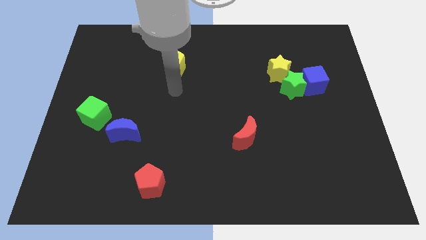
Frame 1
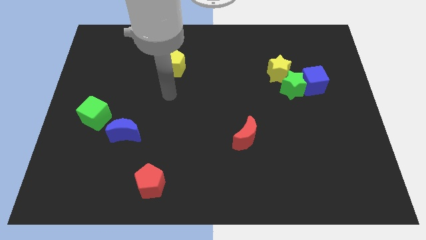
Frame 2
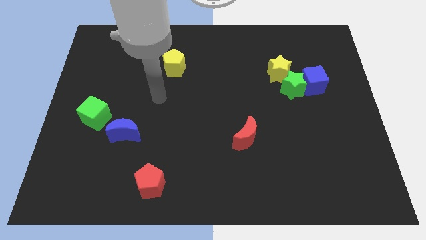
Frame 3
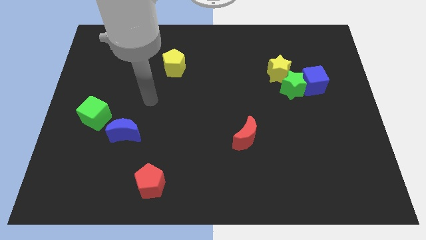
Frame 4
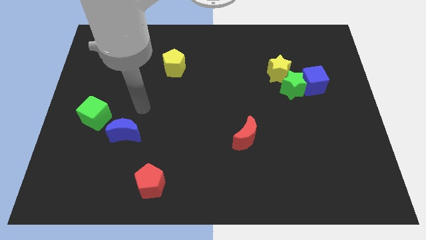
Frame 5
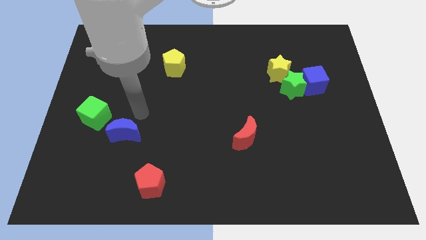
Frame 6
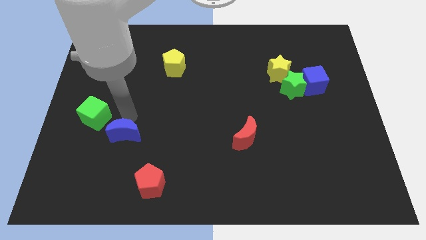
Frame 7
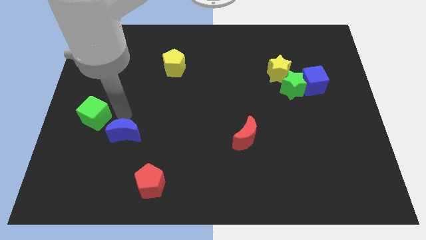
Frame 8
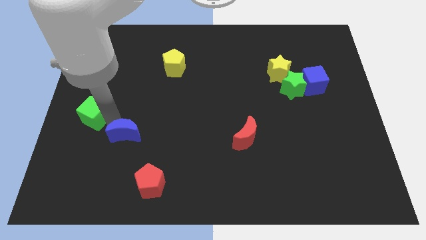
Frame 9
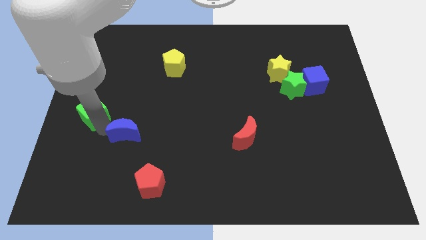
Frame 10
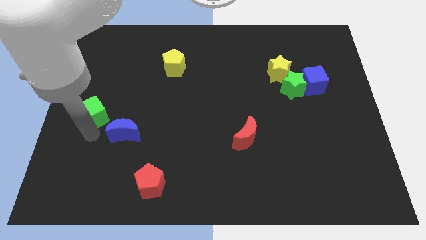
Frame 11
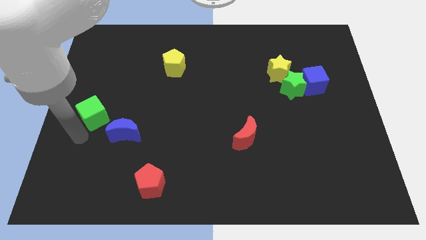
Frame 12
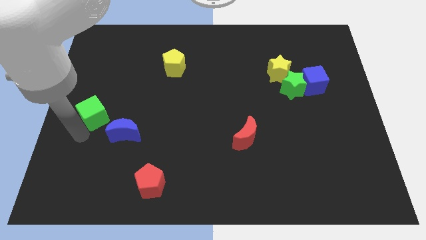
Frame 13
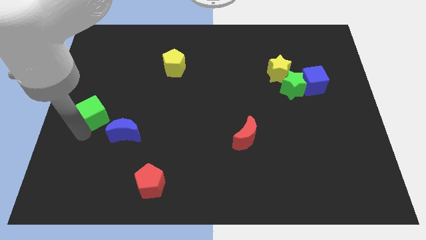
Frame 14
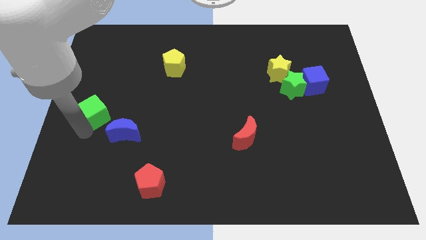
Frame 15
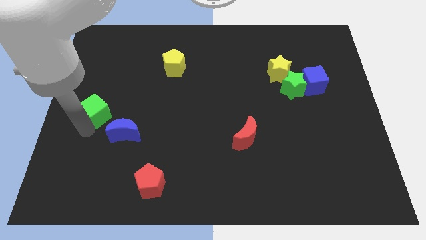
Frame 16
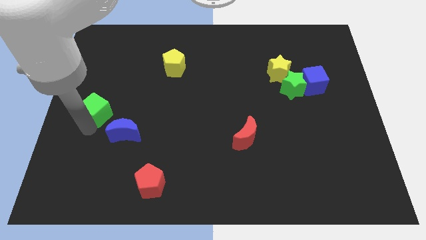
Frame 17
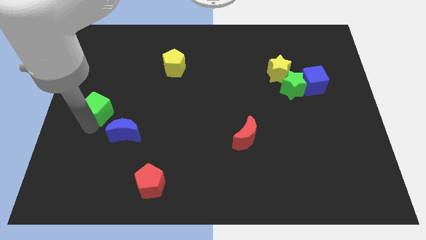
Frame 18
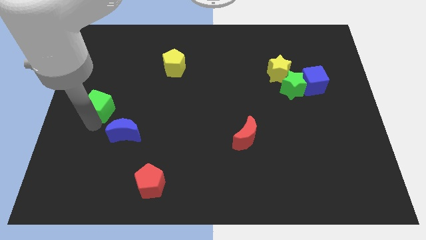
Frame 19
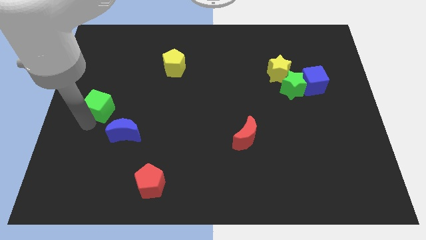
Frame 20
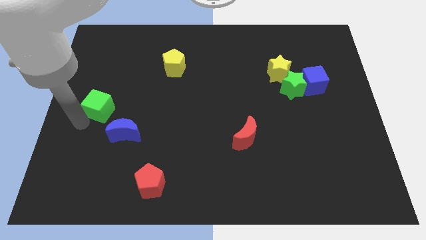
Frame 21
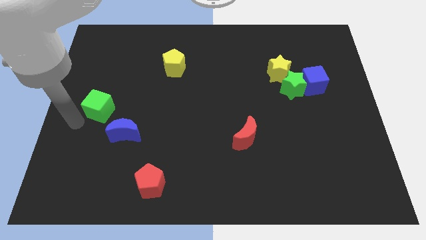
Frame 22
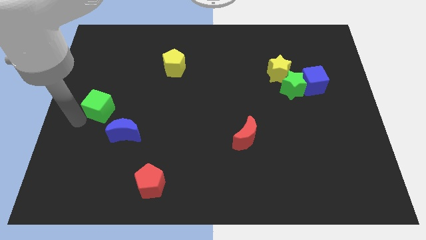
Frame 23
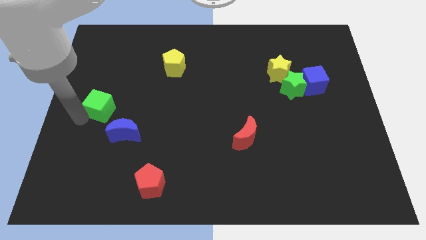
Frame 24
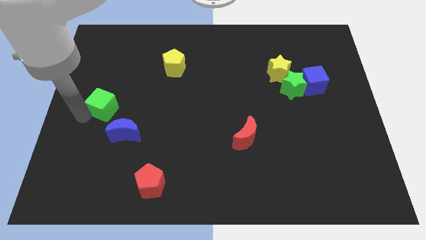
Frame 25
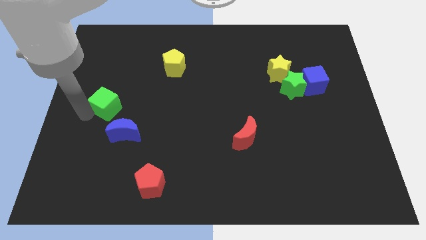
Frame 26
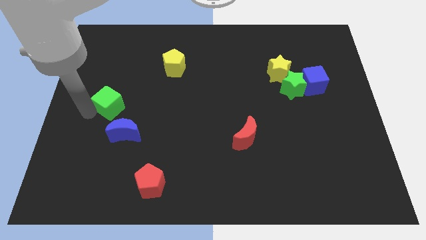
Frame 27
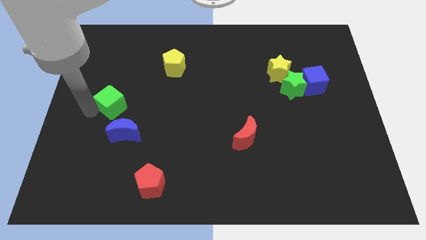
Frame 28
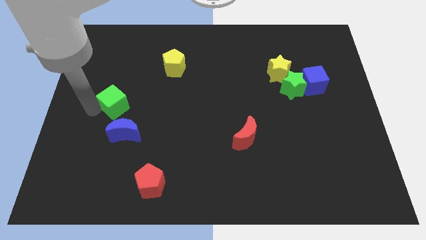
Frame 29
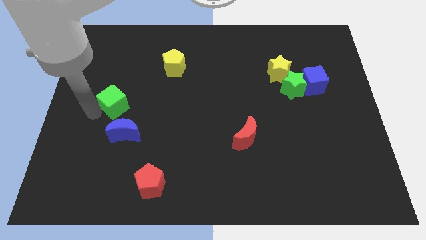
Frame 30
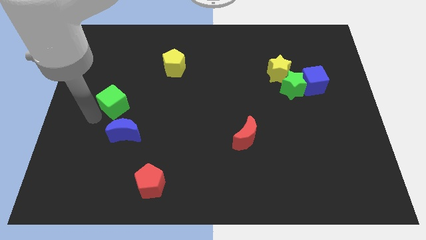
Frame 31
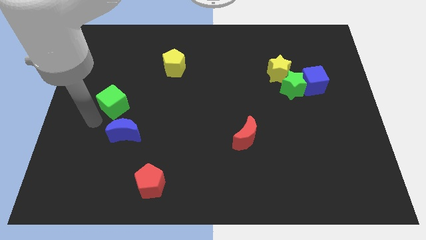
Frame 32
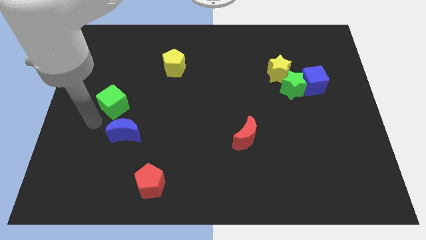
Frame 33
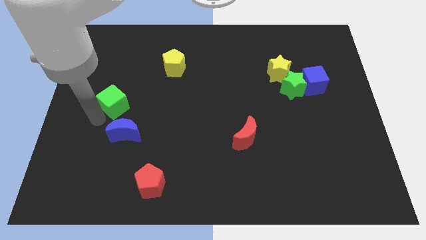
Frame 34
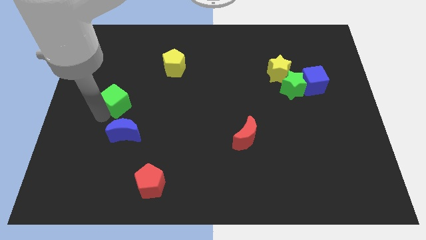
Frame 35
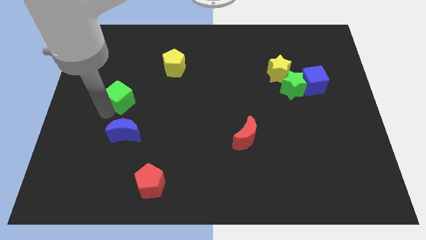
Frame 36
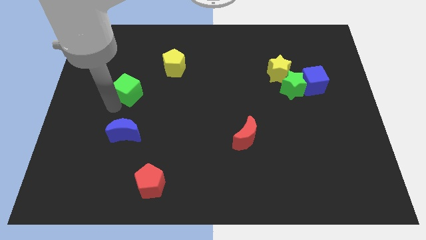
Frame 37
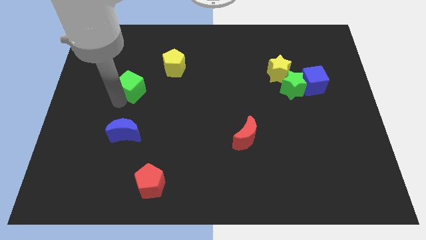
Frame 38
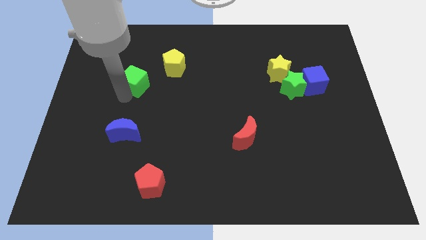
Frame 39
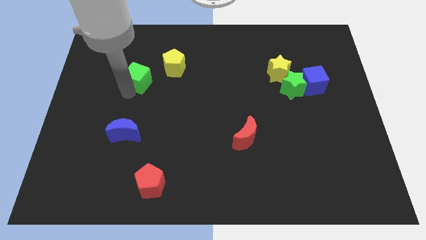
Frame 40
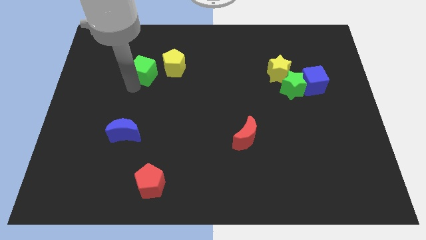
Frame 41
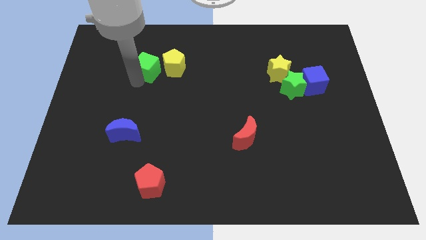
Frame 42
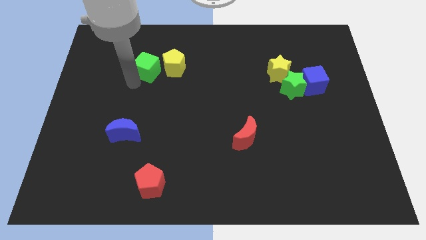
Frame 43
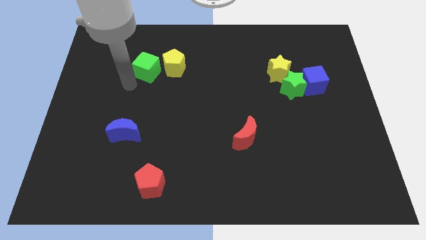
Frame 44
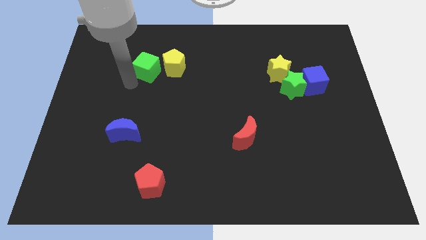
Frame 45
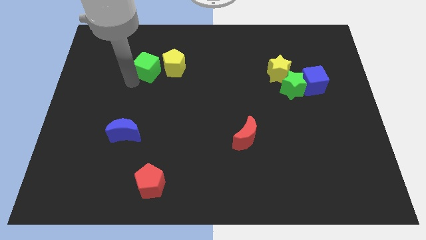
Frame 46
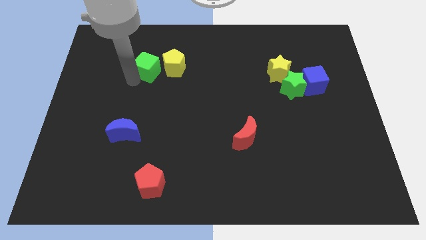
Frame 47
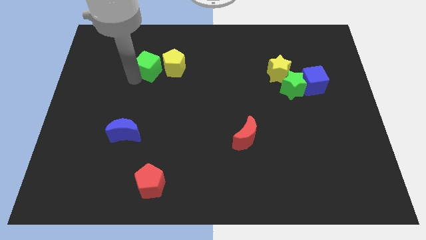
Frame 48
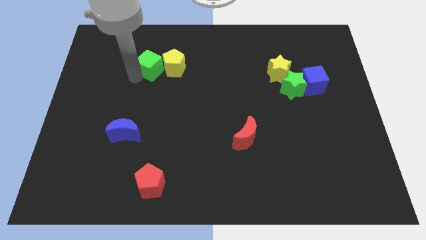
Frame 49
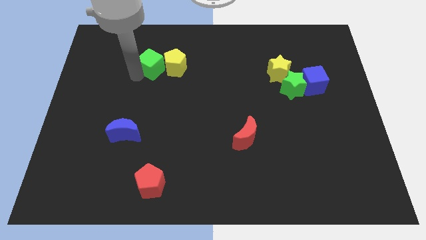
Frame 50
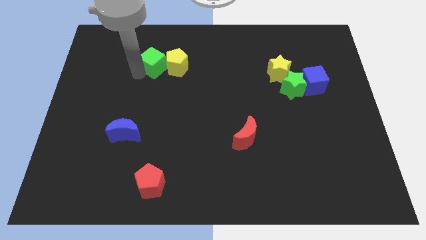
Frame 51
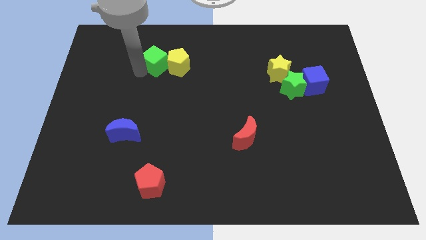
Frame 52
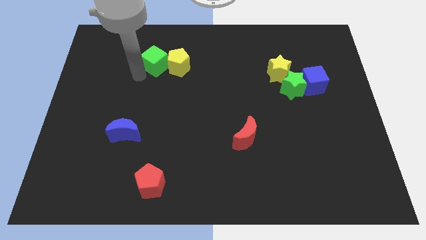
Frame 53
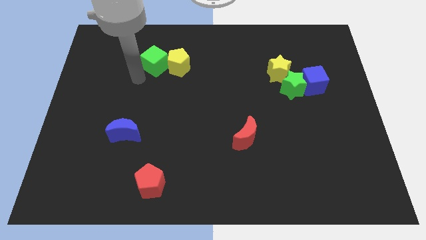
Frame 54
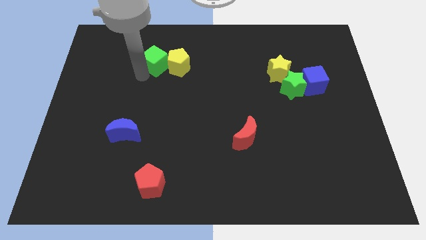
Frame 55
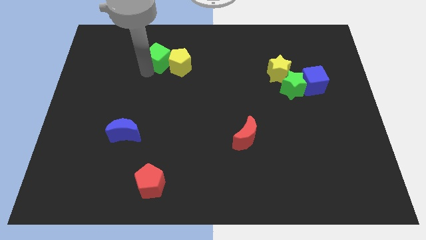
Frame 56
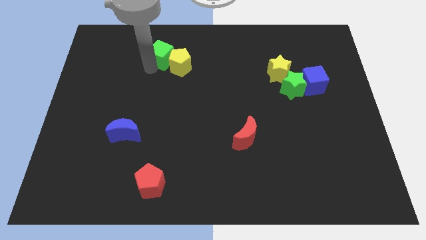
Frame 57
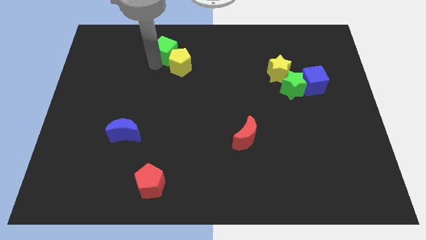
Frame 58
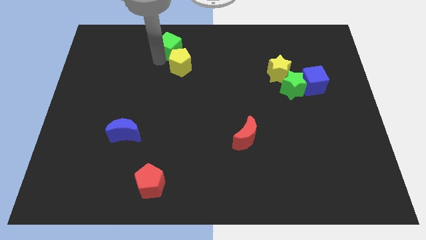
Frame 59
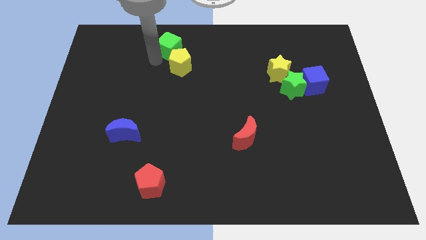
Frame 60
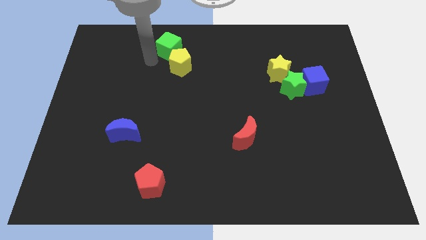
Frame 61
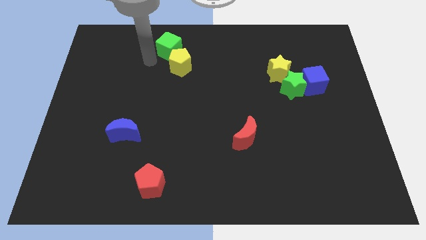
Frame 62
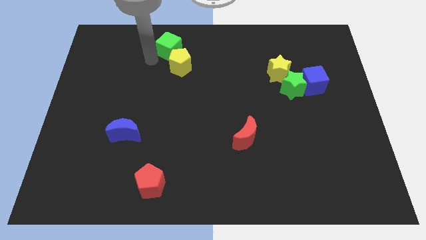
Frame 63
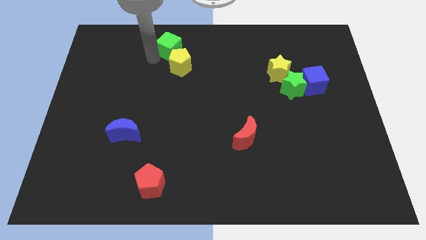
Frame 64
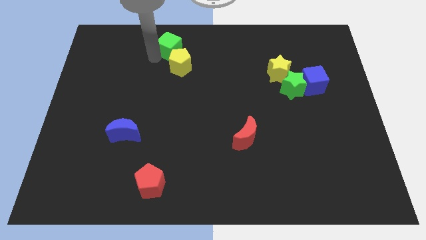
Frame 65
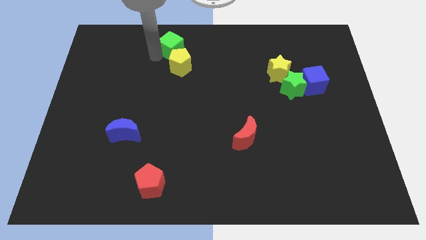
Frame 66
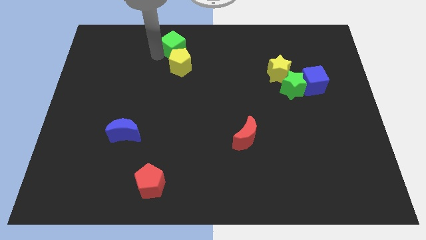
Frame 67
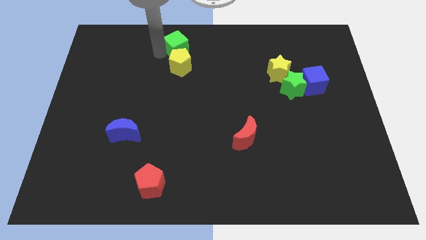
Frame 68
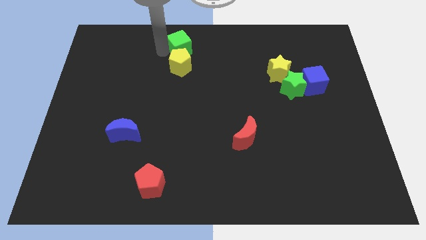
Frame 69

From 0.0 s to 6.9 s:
put the green cube to the top side

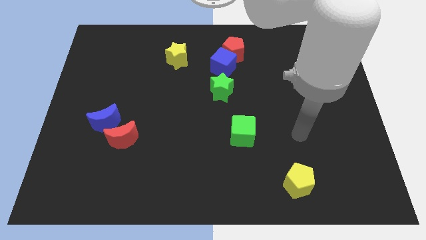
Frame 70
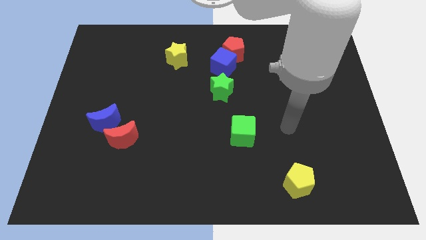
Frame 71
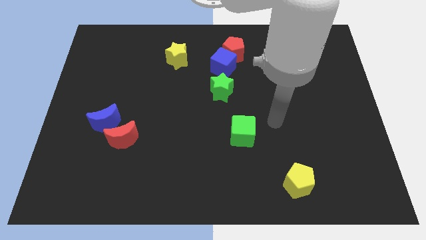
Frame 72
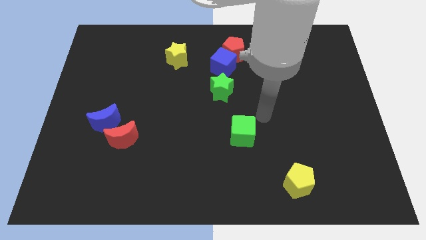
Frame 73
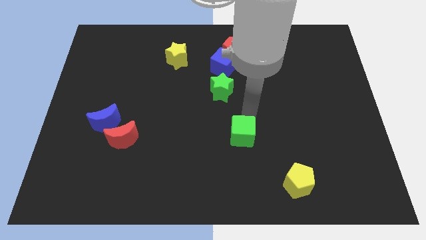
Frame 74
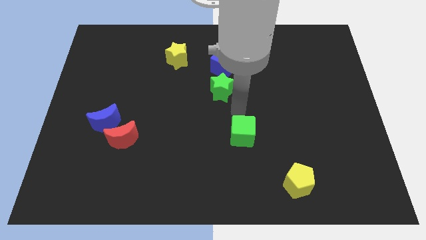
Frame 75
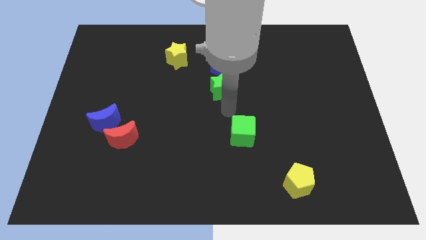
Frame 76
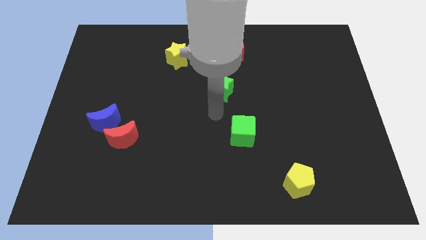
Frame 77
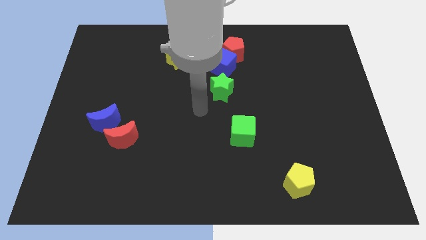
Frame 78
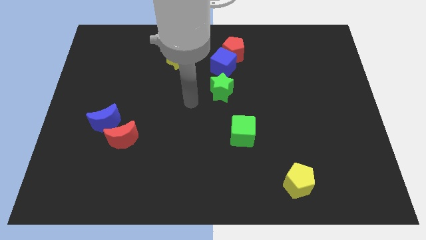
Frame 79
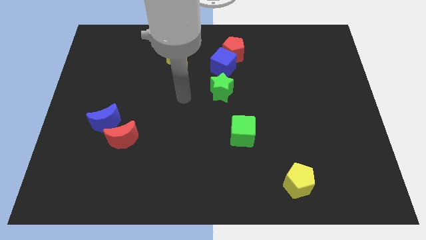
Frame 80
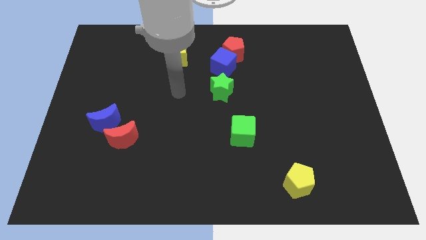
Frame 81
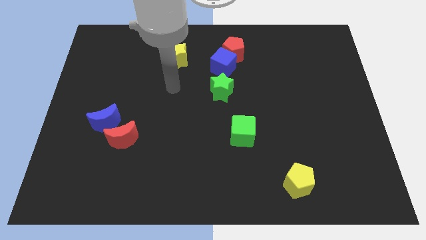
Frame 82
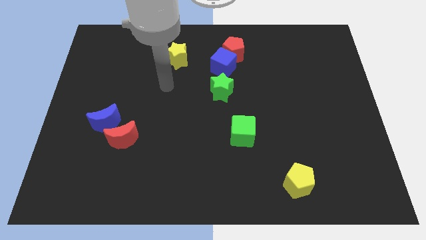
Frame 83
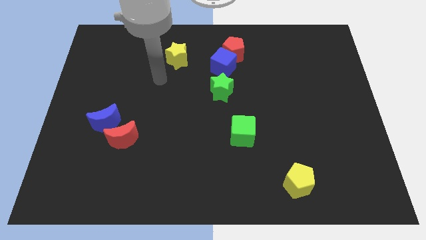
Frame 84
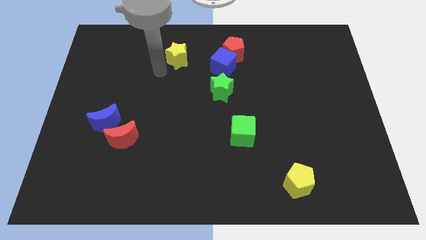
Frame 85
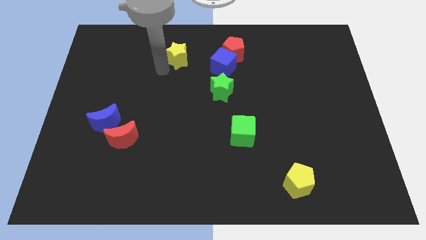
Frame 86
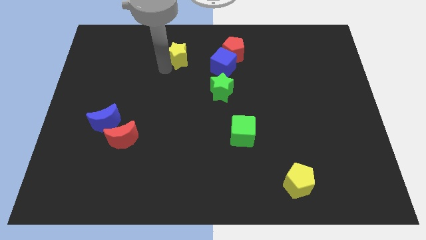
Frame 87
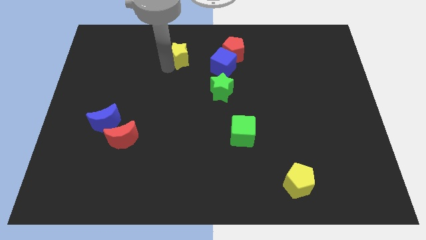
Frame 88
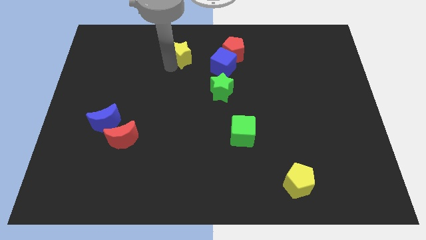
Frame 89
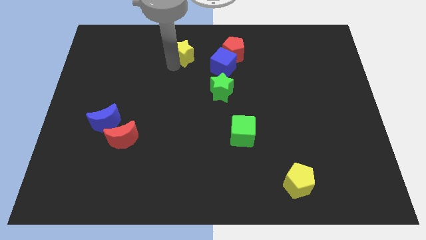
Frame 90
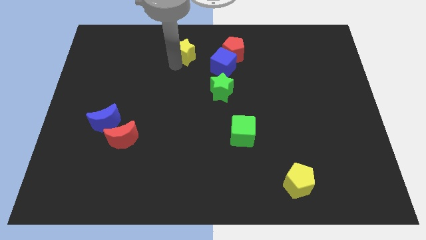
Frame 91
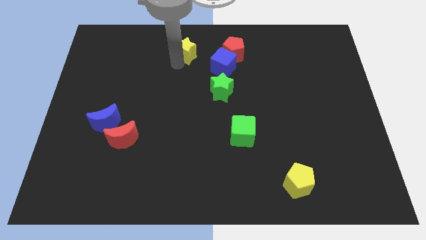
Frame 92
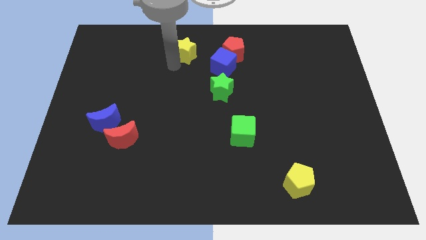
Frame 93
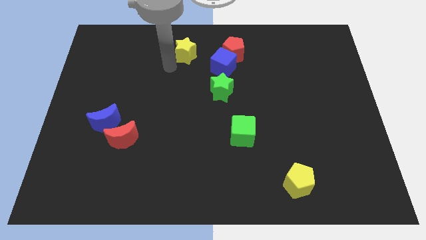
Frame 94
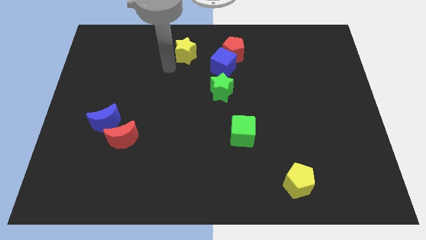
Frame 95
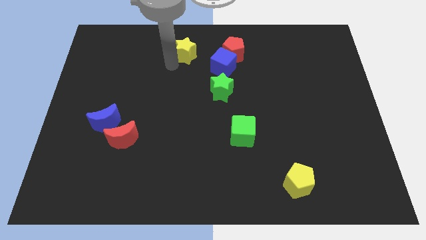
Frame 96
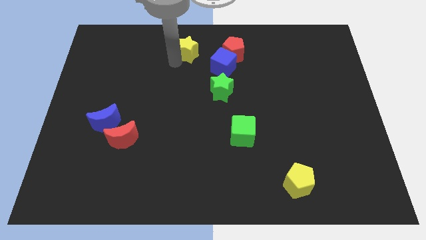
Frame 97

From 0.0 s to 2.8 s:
put the yellow star to the top side
